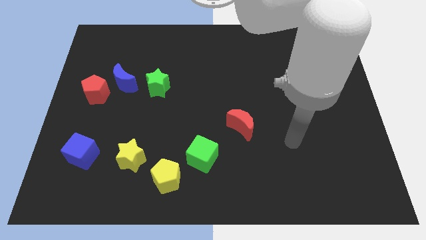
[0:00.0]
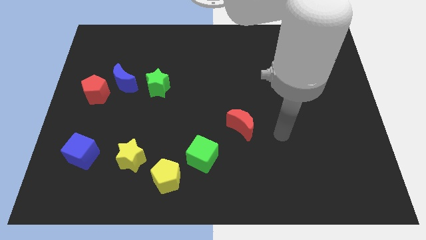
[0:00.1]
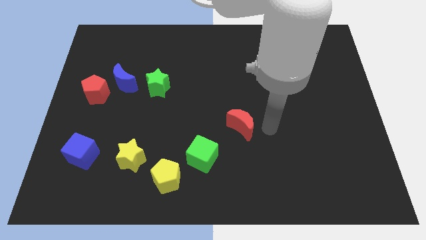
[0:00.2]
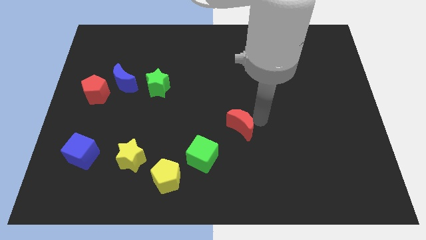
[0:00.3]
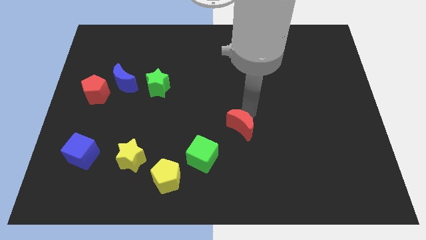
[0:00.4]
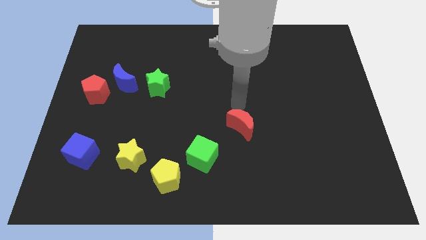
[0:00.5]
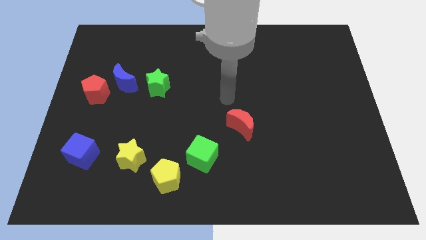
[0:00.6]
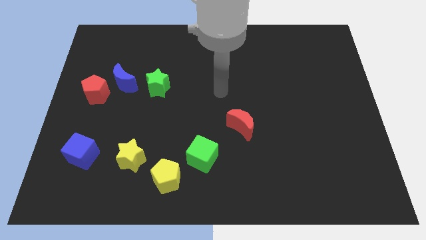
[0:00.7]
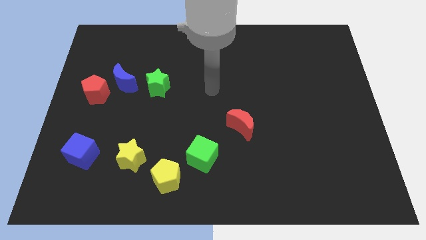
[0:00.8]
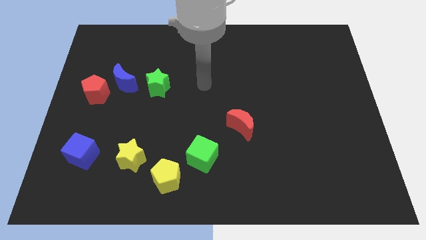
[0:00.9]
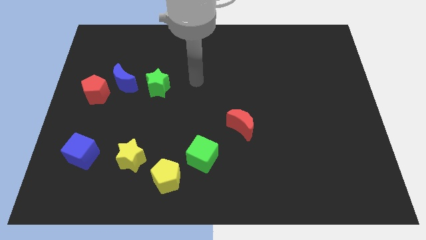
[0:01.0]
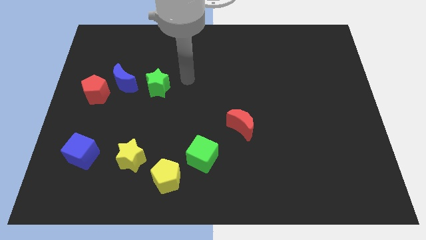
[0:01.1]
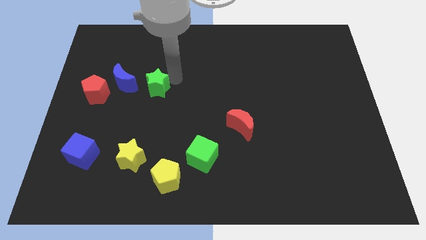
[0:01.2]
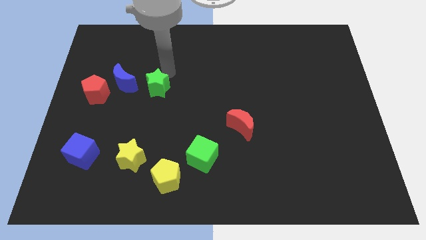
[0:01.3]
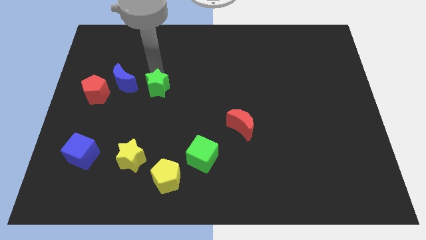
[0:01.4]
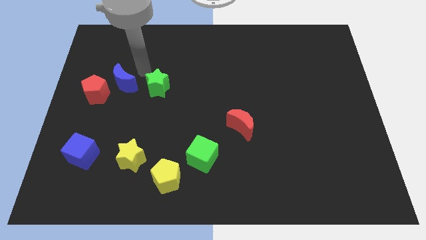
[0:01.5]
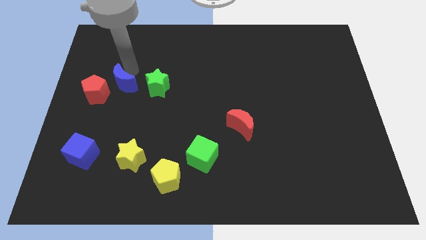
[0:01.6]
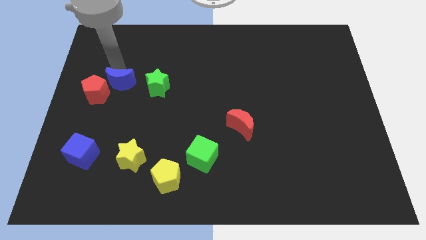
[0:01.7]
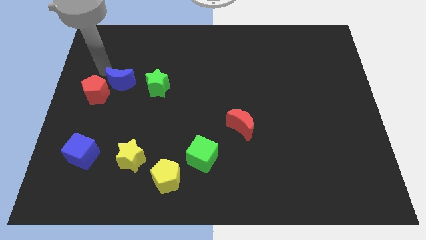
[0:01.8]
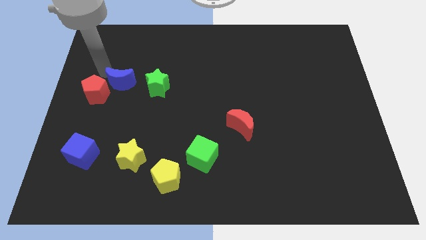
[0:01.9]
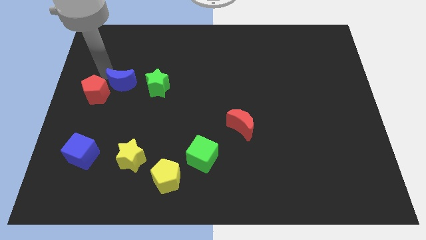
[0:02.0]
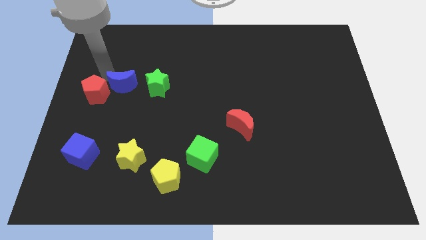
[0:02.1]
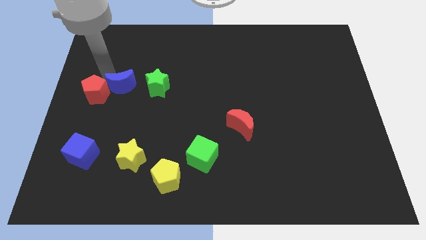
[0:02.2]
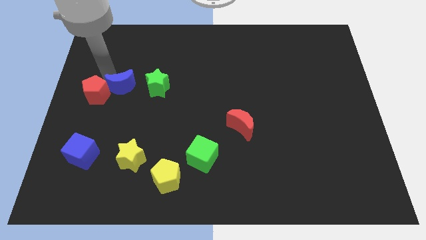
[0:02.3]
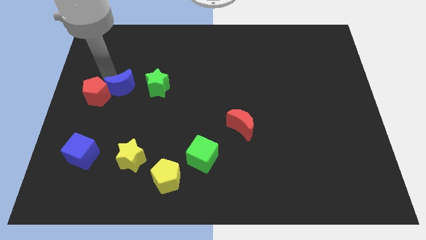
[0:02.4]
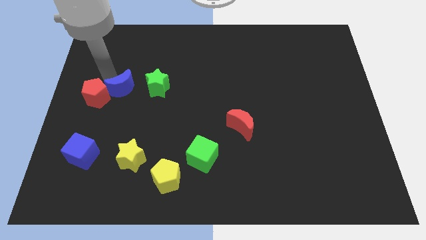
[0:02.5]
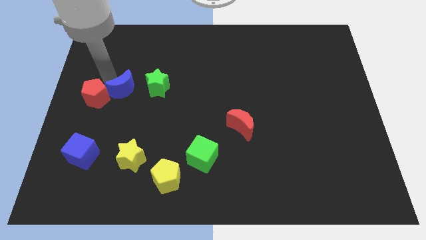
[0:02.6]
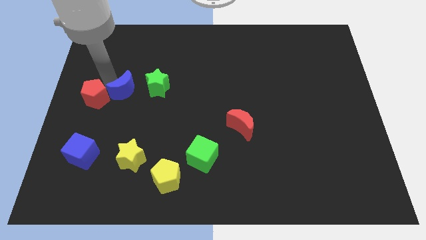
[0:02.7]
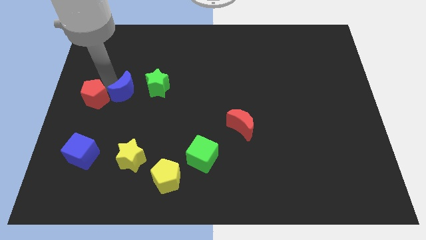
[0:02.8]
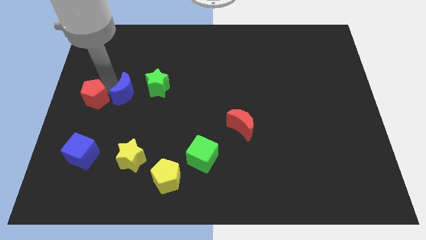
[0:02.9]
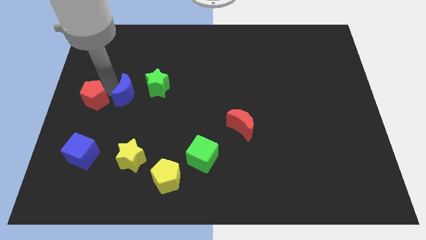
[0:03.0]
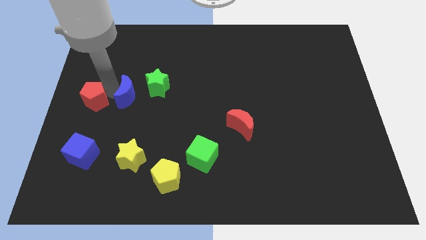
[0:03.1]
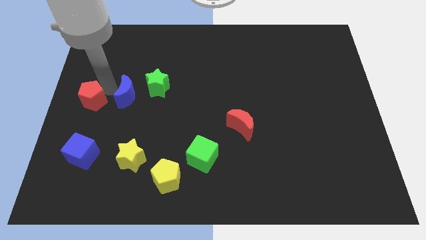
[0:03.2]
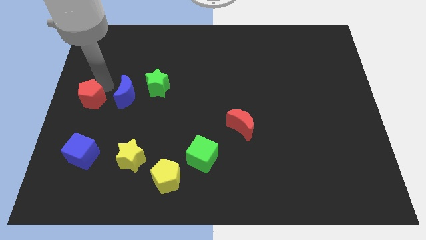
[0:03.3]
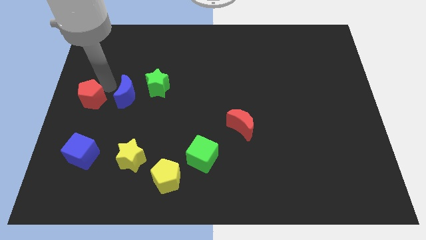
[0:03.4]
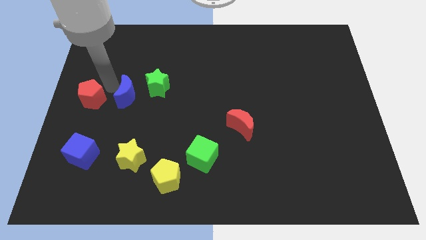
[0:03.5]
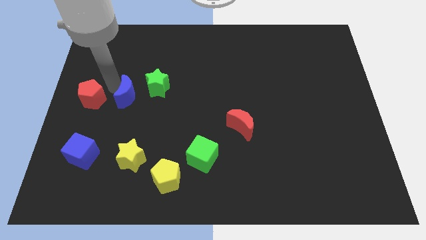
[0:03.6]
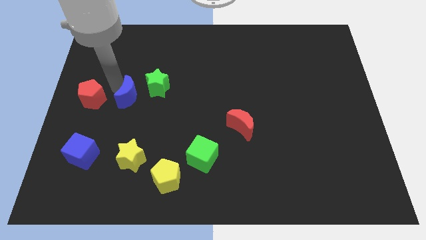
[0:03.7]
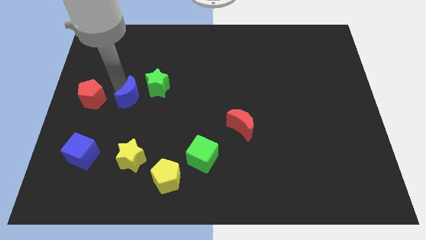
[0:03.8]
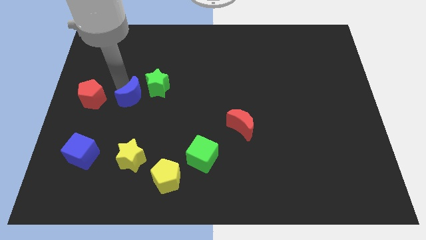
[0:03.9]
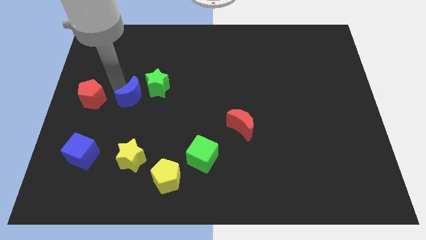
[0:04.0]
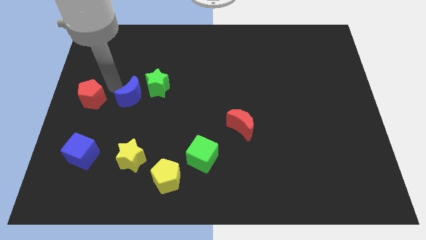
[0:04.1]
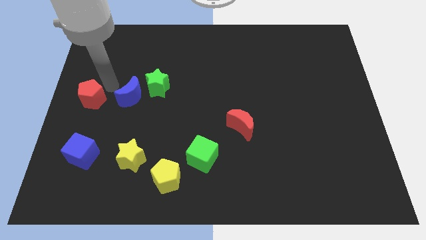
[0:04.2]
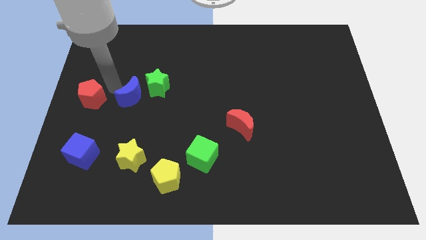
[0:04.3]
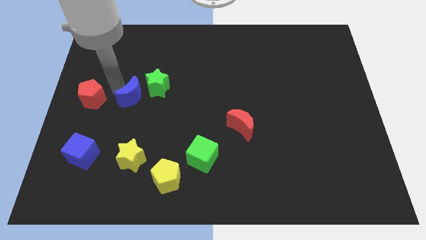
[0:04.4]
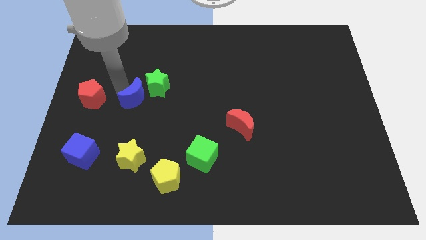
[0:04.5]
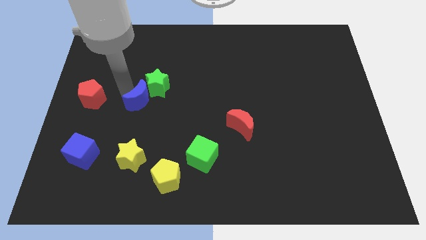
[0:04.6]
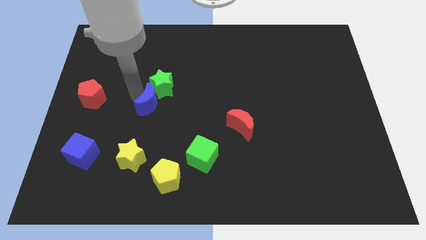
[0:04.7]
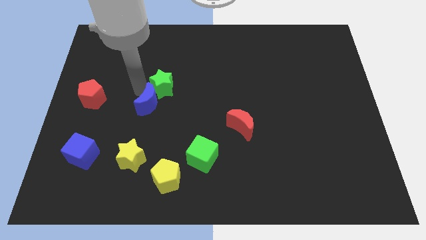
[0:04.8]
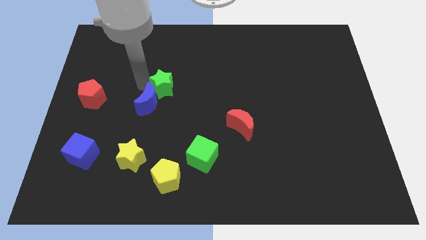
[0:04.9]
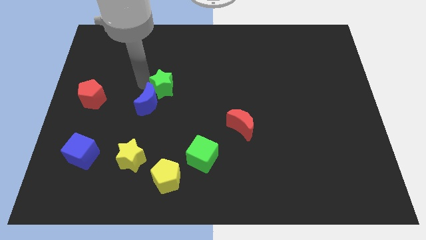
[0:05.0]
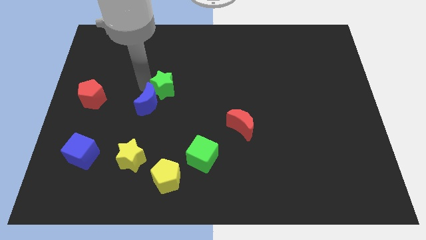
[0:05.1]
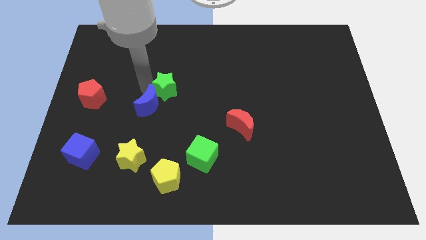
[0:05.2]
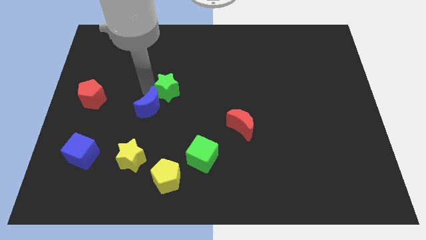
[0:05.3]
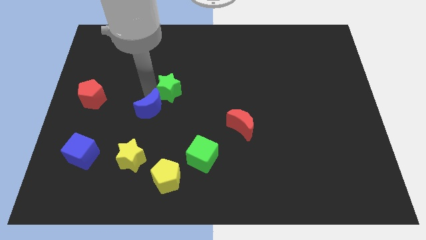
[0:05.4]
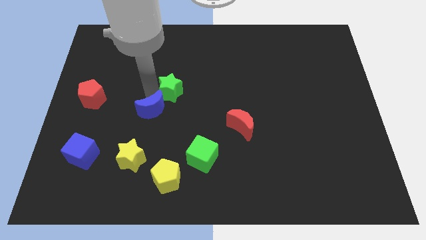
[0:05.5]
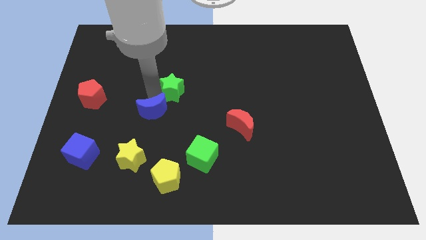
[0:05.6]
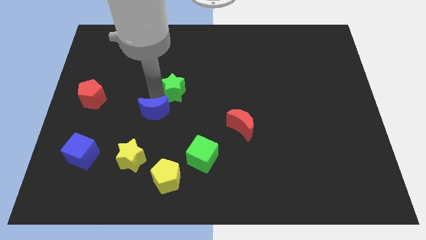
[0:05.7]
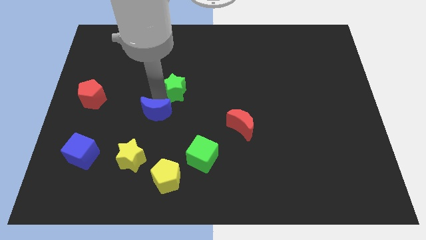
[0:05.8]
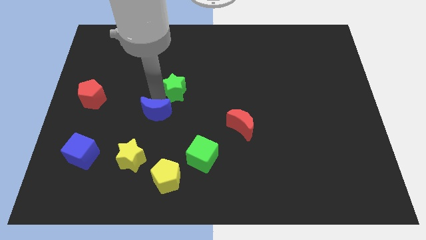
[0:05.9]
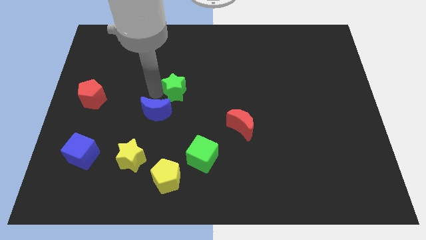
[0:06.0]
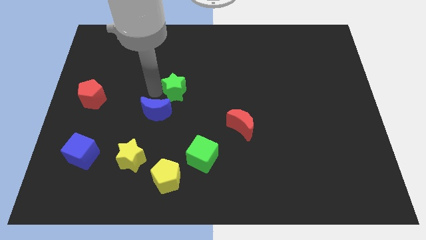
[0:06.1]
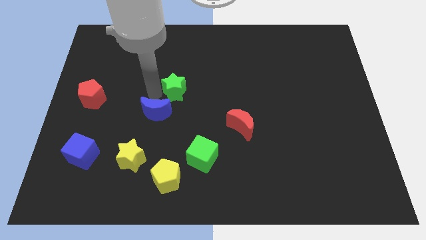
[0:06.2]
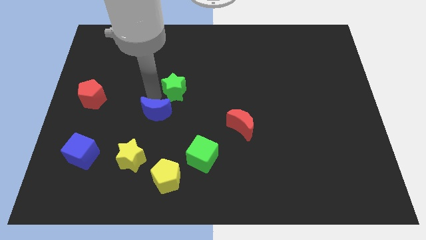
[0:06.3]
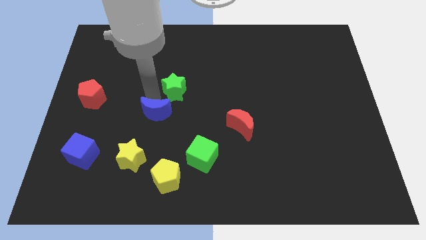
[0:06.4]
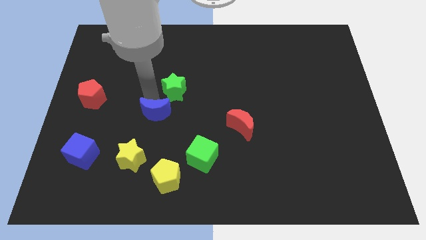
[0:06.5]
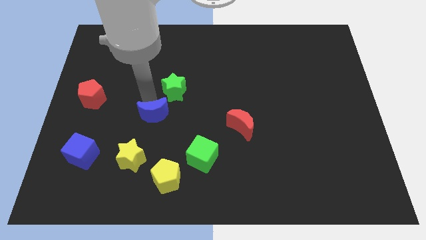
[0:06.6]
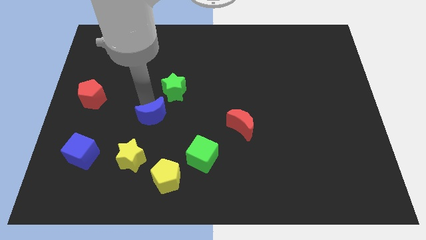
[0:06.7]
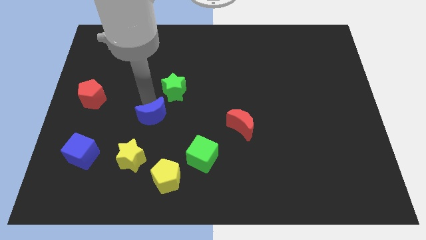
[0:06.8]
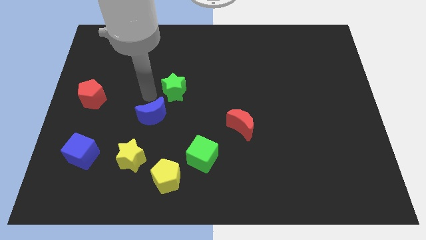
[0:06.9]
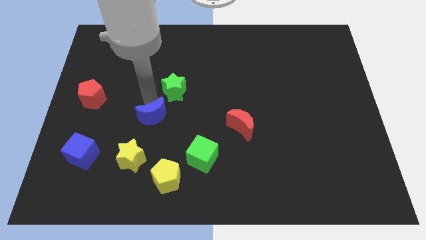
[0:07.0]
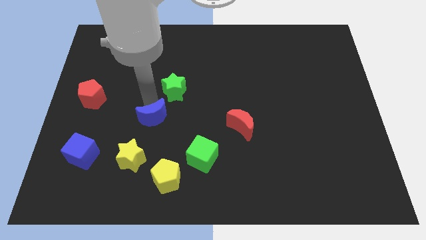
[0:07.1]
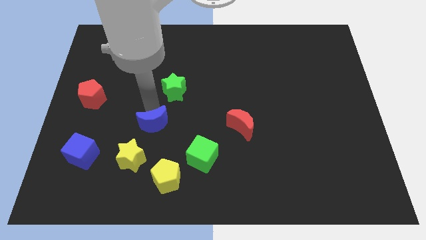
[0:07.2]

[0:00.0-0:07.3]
put the blue moon to the top right side of the yellow star
